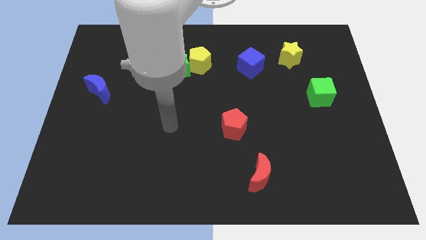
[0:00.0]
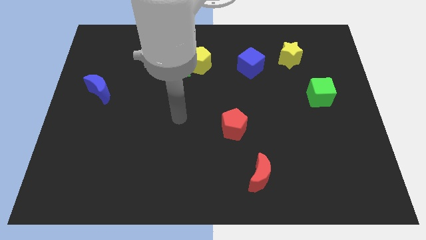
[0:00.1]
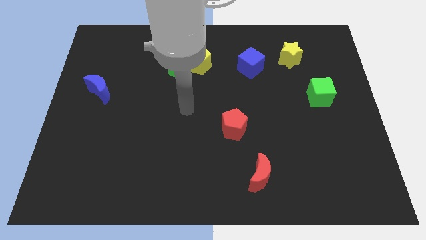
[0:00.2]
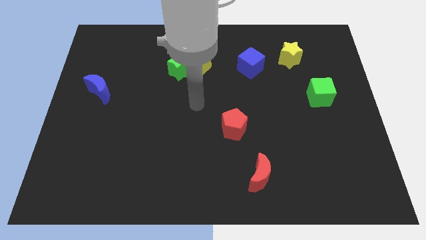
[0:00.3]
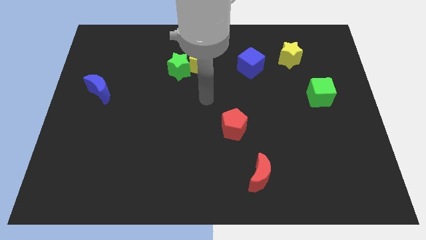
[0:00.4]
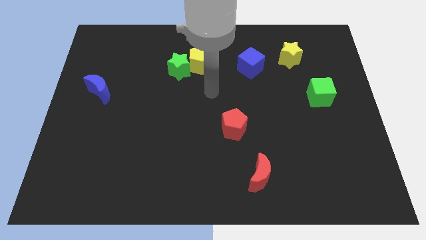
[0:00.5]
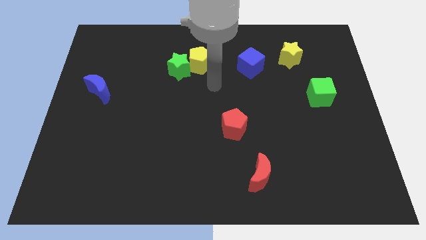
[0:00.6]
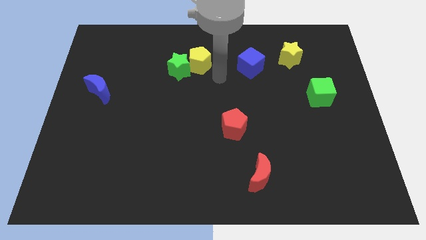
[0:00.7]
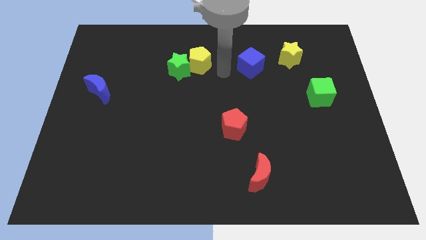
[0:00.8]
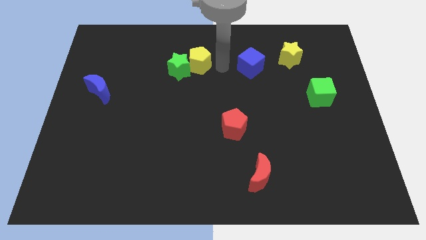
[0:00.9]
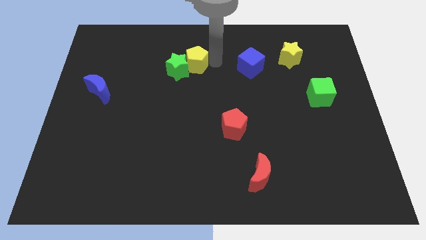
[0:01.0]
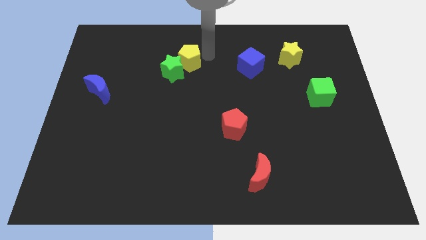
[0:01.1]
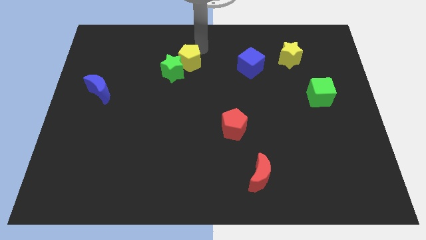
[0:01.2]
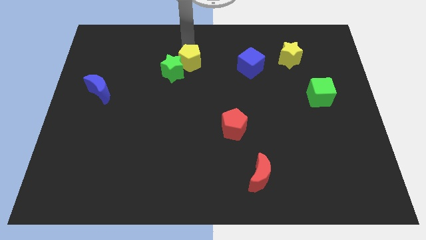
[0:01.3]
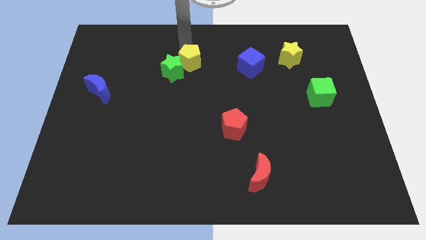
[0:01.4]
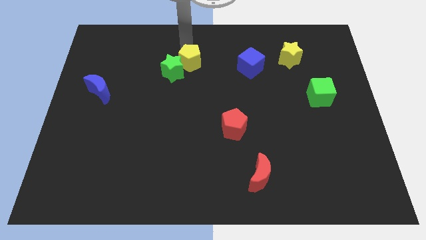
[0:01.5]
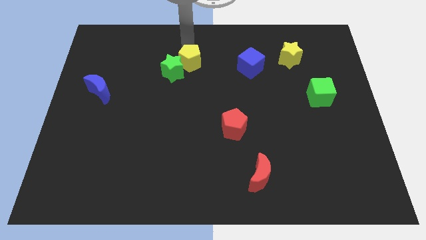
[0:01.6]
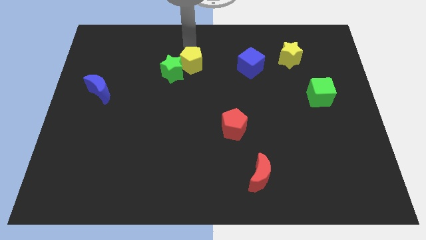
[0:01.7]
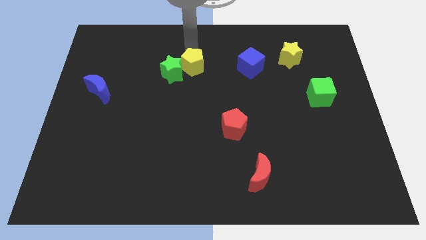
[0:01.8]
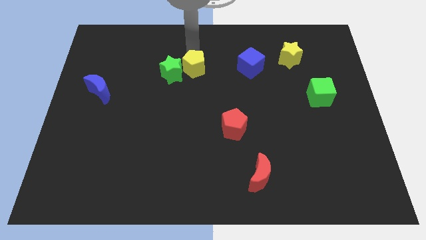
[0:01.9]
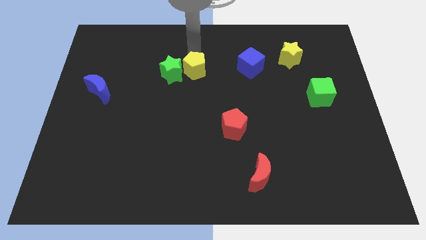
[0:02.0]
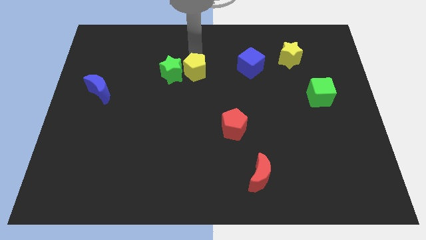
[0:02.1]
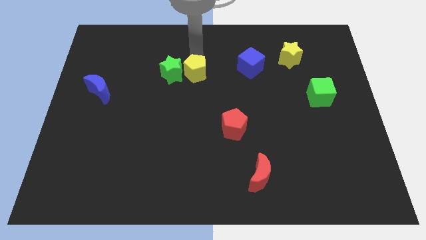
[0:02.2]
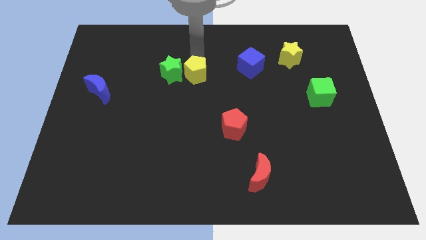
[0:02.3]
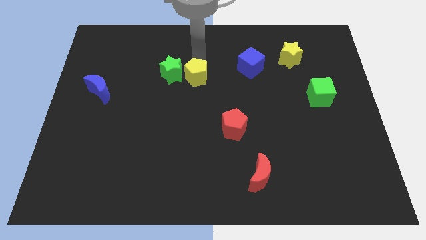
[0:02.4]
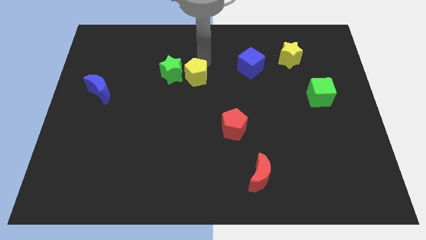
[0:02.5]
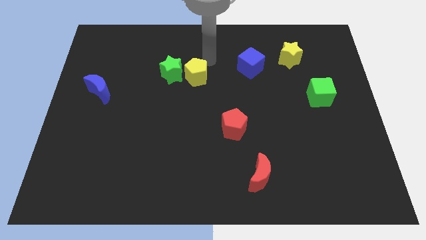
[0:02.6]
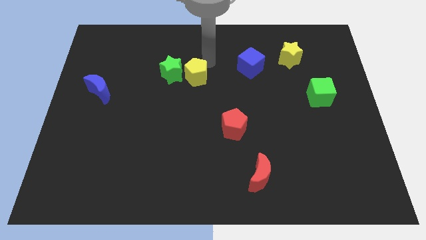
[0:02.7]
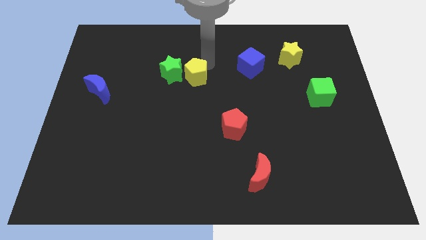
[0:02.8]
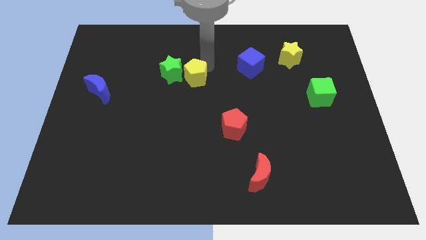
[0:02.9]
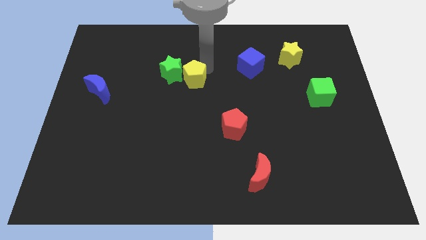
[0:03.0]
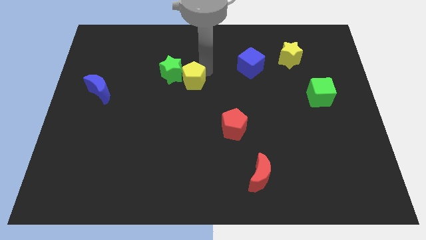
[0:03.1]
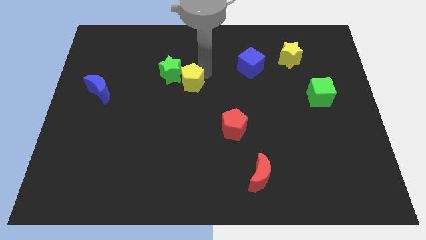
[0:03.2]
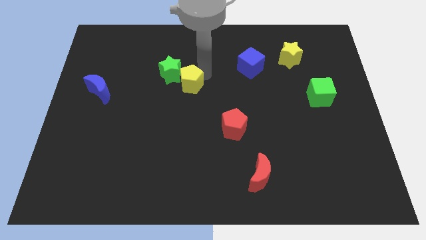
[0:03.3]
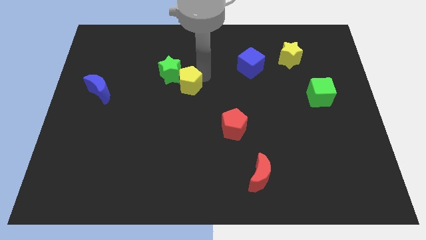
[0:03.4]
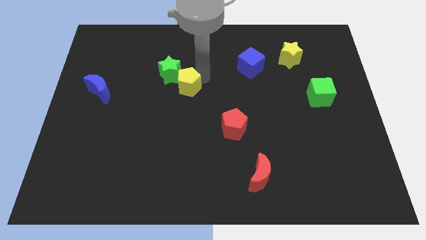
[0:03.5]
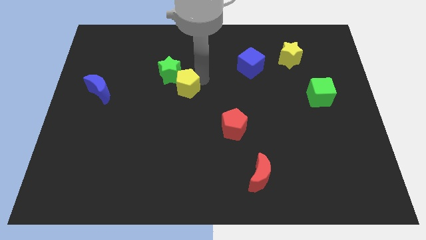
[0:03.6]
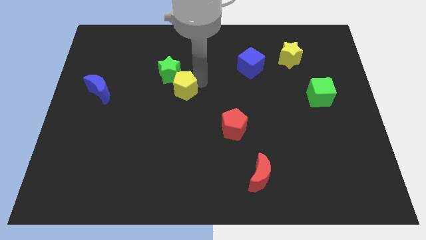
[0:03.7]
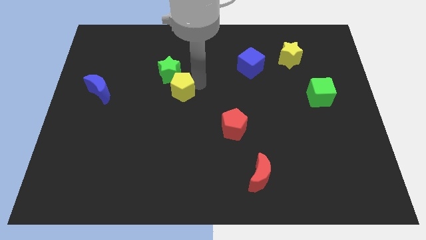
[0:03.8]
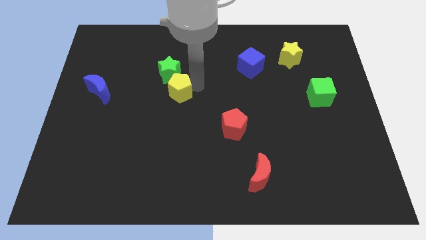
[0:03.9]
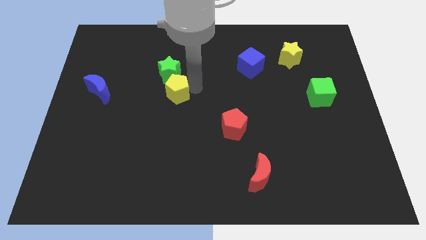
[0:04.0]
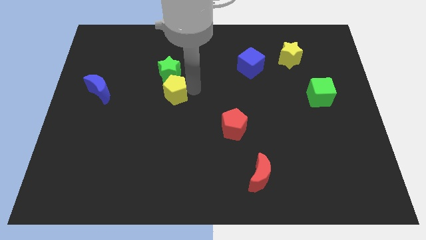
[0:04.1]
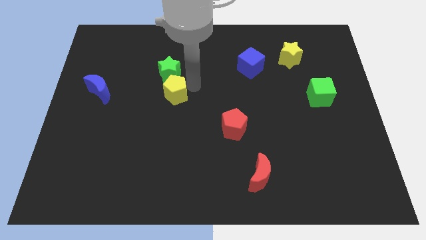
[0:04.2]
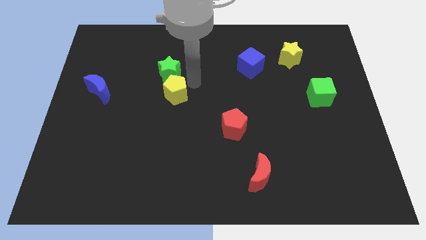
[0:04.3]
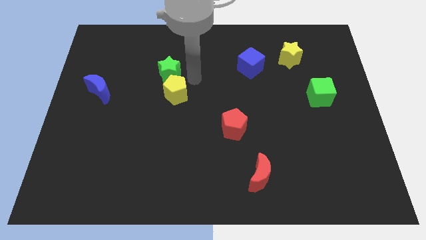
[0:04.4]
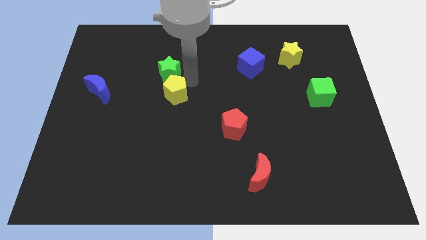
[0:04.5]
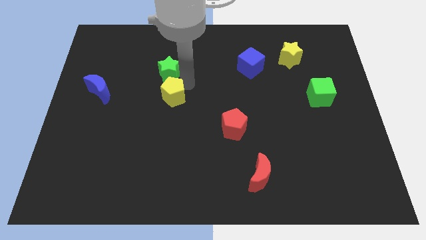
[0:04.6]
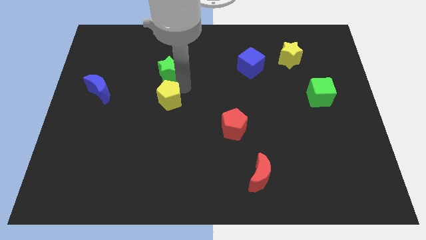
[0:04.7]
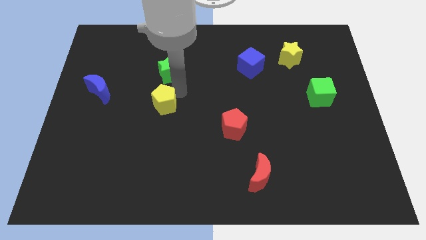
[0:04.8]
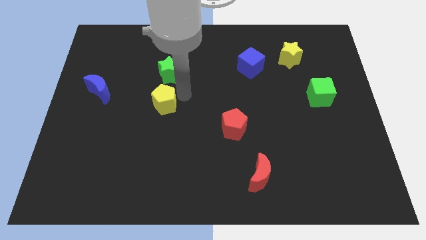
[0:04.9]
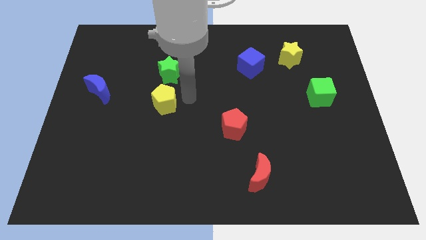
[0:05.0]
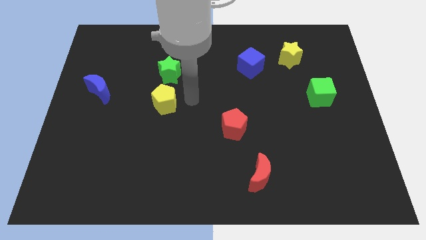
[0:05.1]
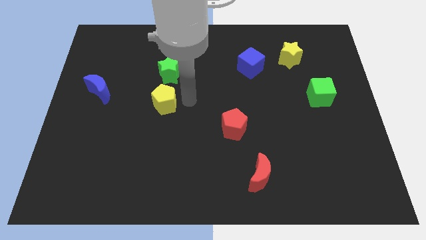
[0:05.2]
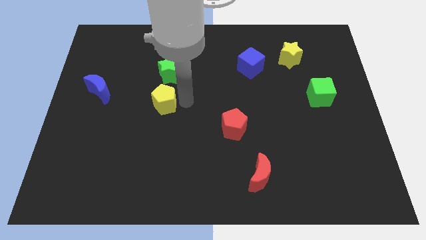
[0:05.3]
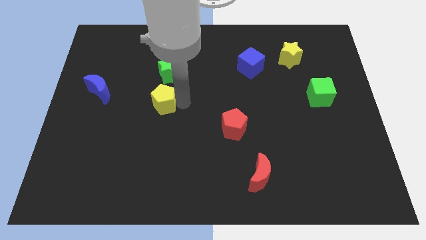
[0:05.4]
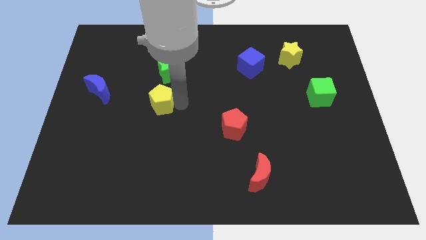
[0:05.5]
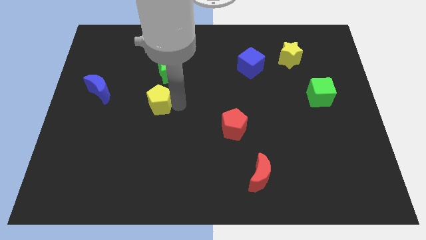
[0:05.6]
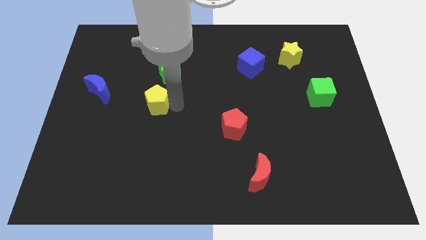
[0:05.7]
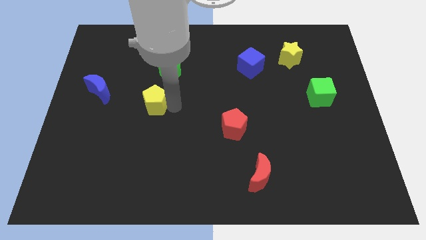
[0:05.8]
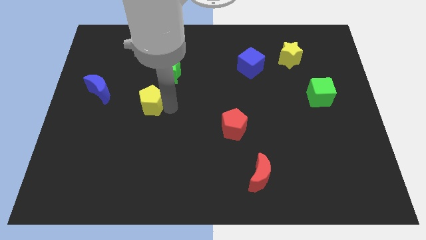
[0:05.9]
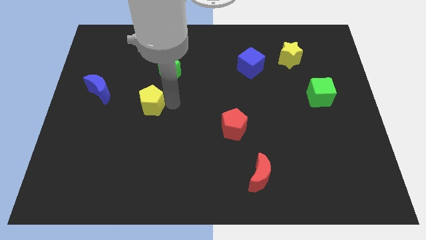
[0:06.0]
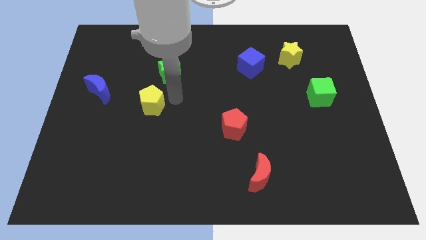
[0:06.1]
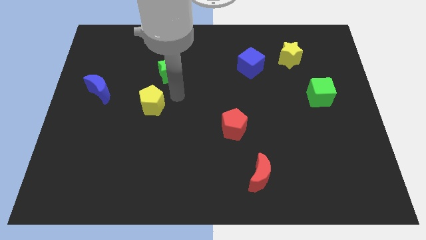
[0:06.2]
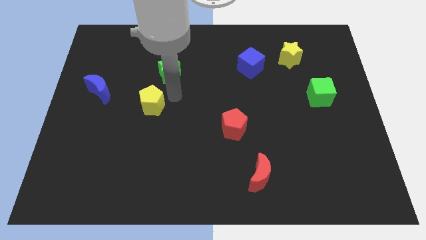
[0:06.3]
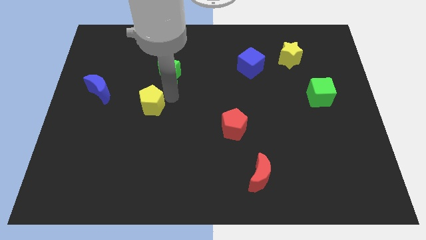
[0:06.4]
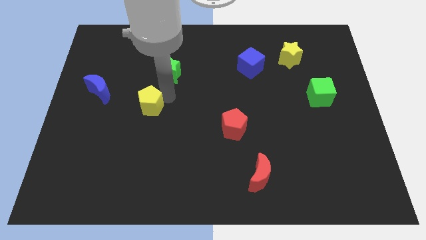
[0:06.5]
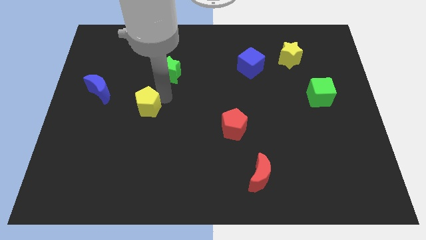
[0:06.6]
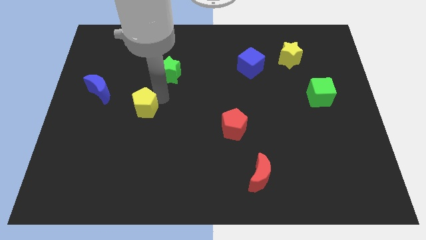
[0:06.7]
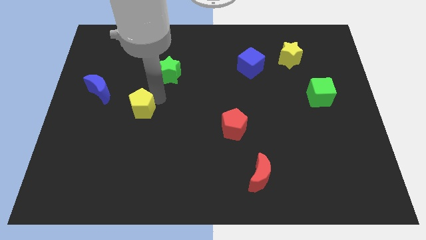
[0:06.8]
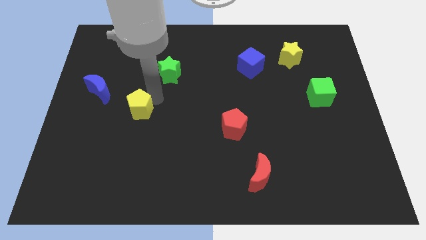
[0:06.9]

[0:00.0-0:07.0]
move the yellow pentagon downwards and left diagonally

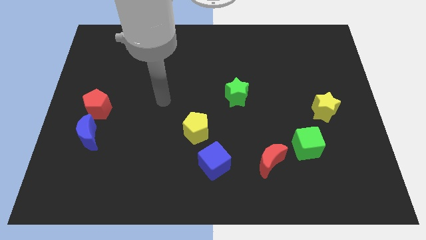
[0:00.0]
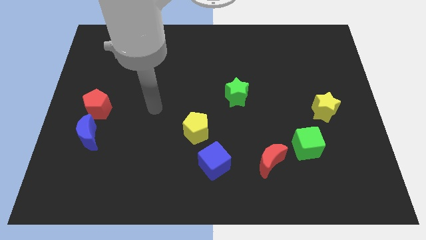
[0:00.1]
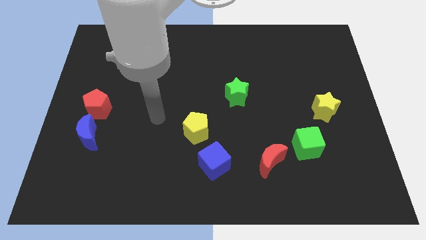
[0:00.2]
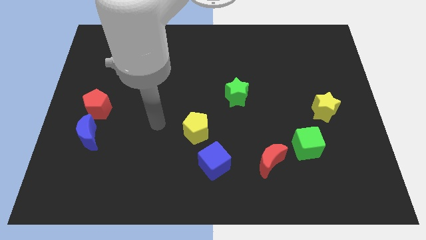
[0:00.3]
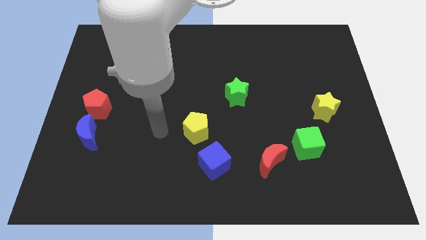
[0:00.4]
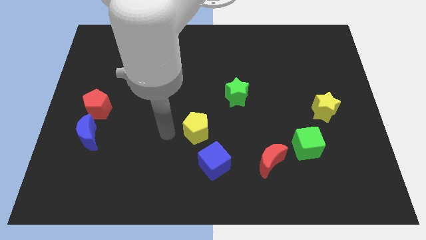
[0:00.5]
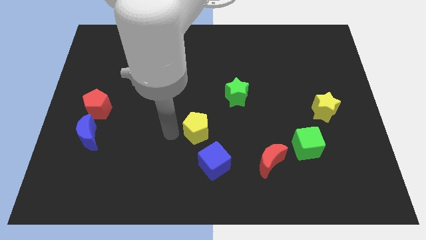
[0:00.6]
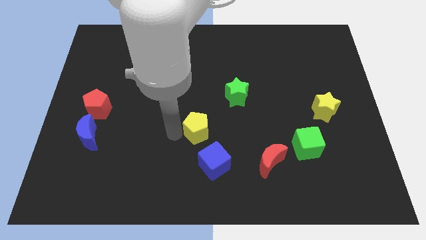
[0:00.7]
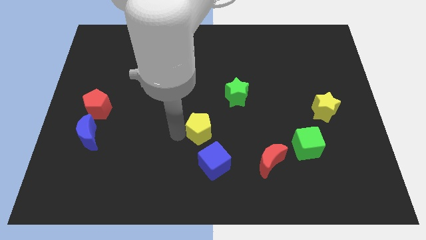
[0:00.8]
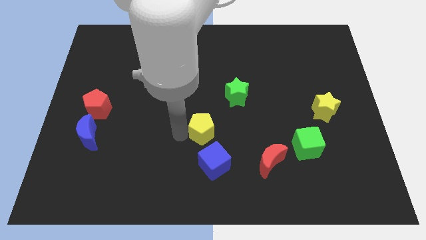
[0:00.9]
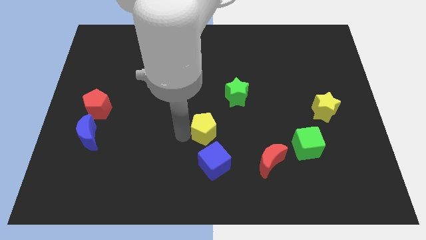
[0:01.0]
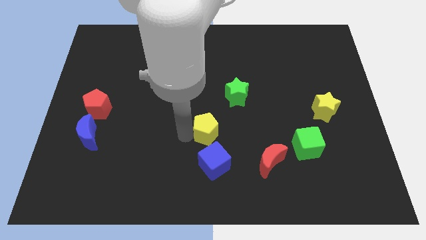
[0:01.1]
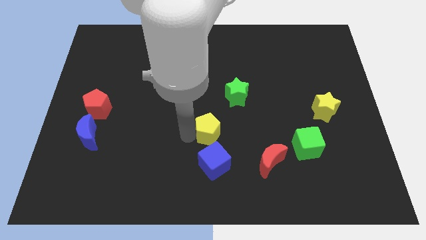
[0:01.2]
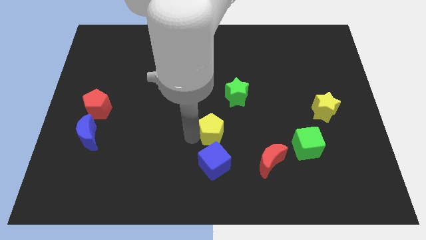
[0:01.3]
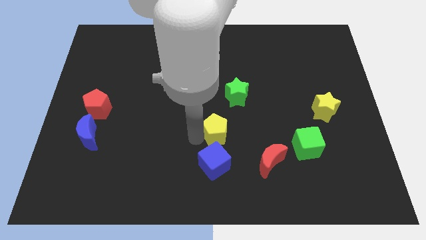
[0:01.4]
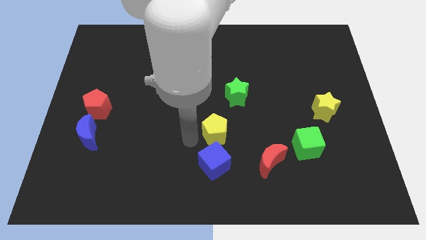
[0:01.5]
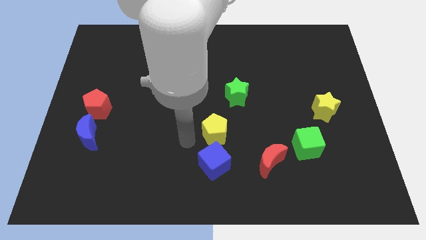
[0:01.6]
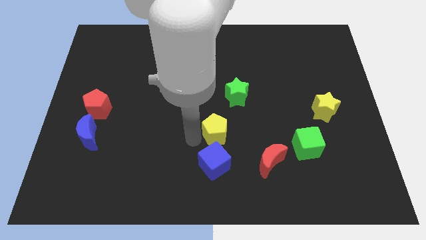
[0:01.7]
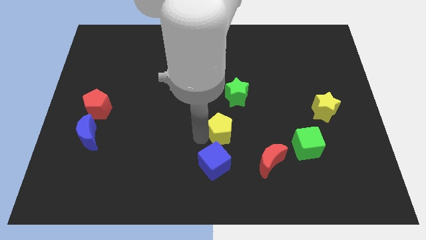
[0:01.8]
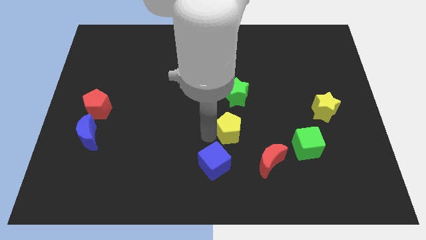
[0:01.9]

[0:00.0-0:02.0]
slightly slide the yellow pentagon to the right
